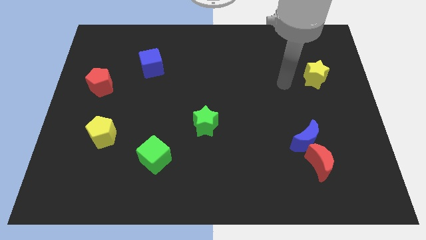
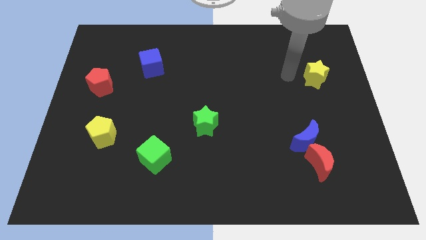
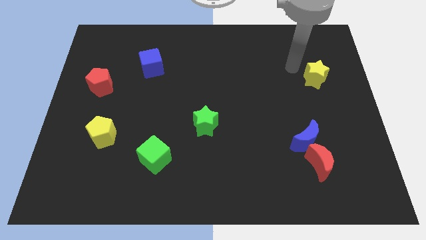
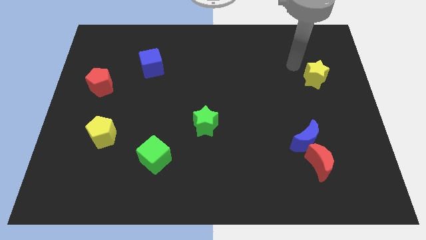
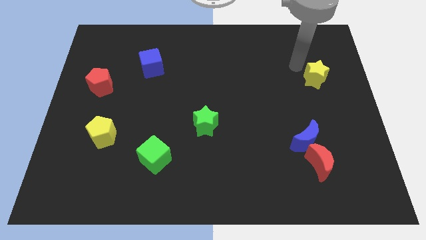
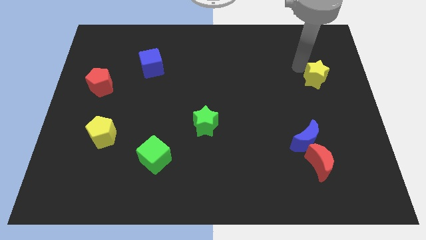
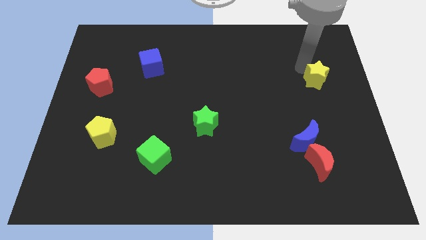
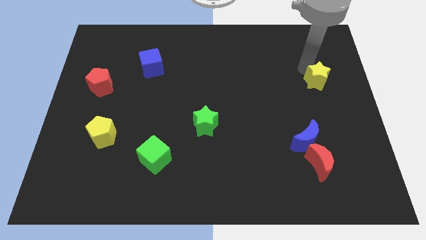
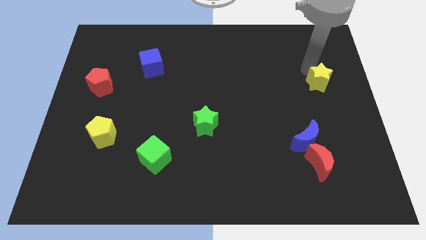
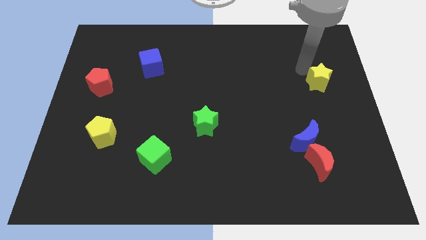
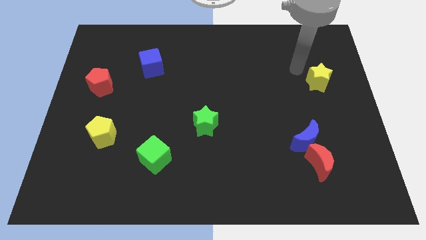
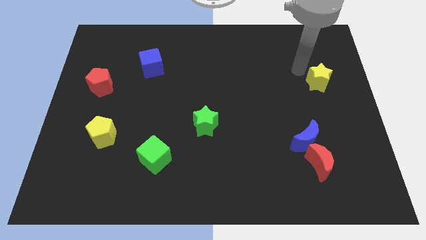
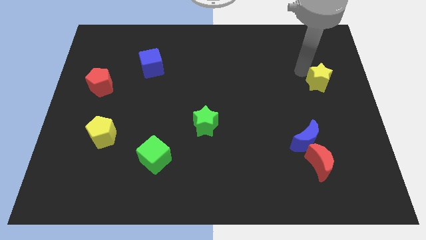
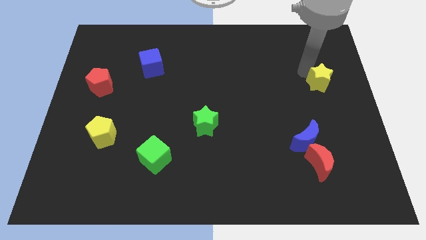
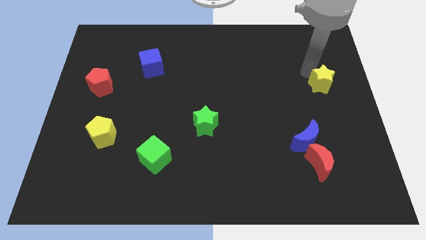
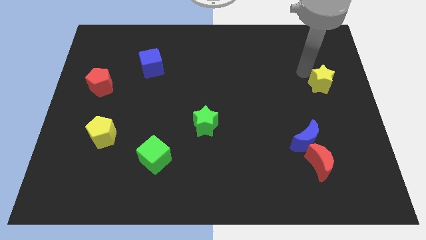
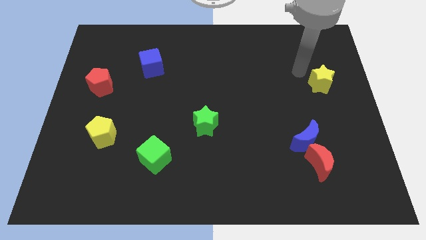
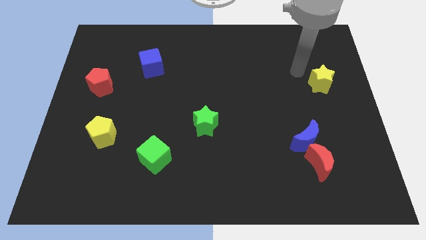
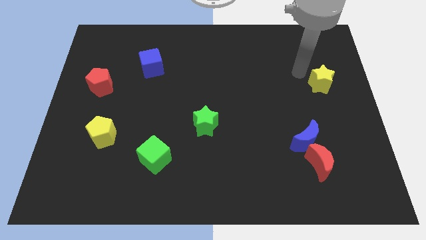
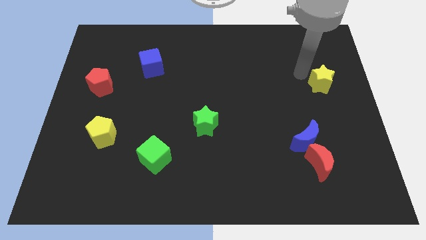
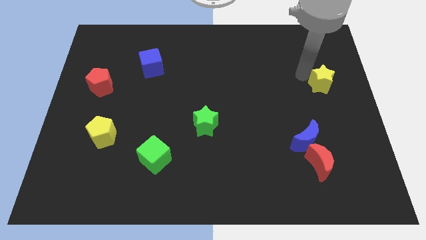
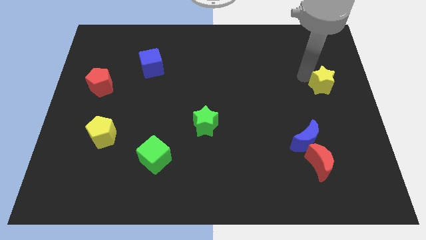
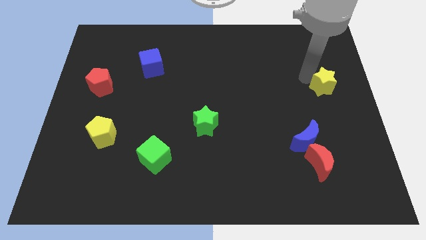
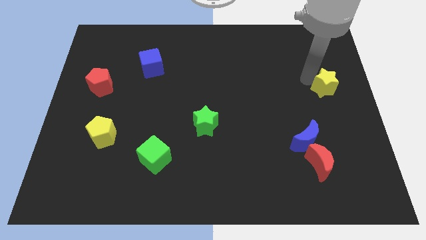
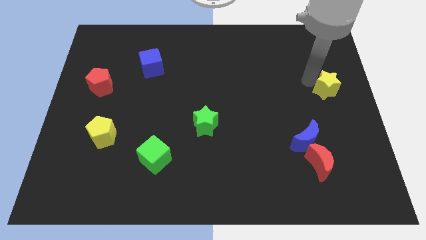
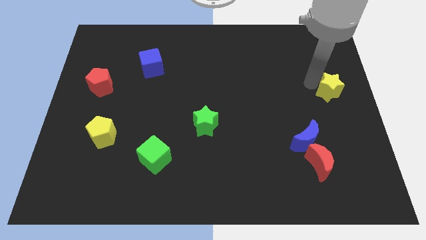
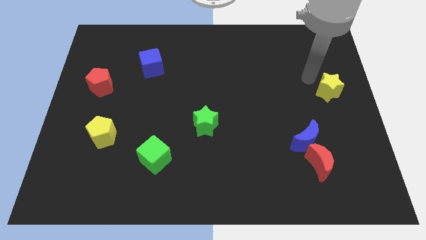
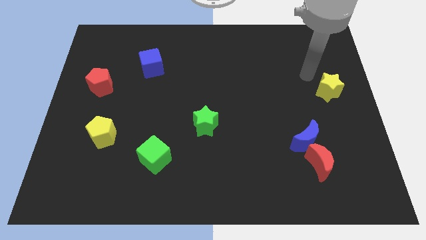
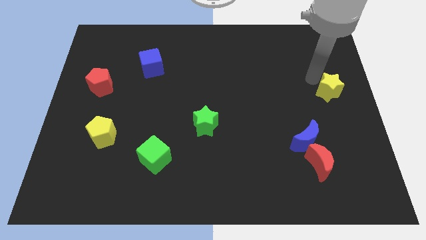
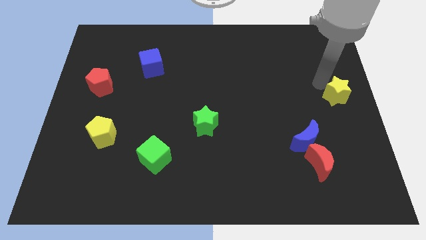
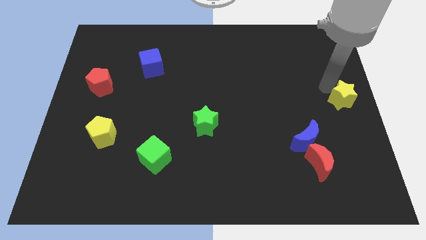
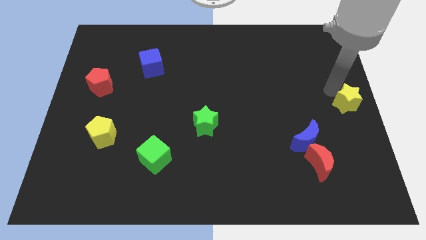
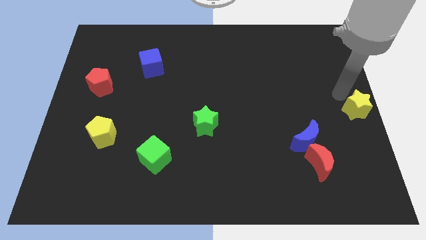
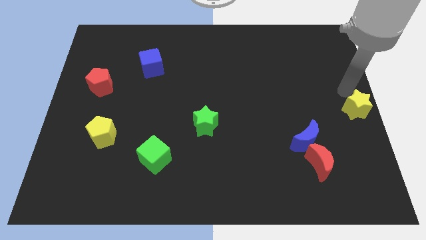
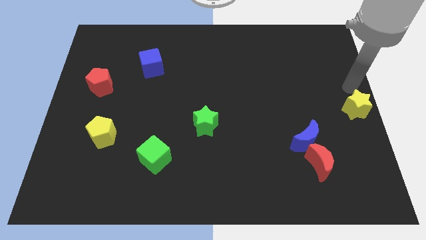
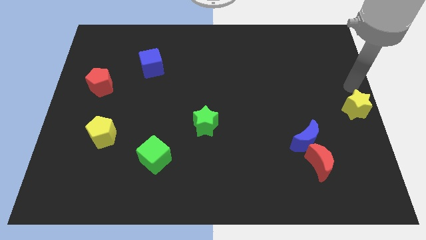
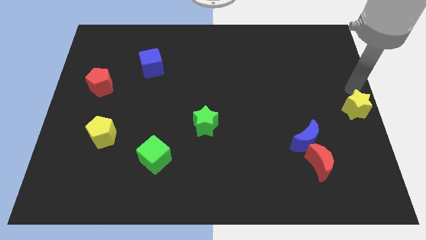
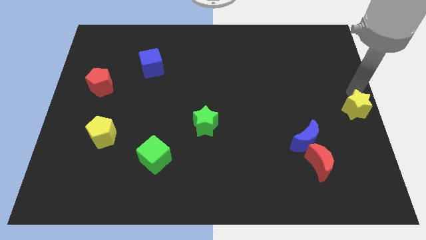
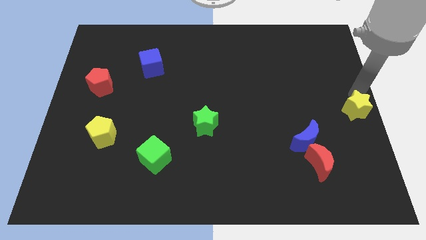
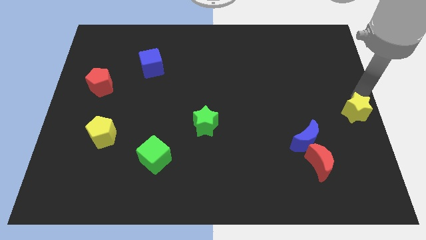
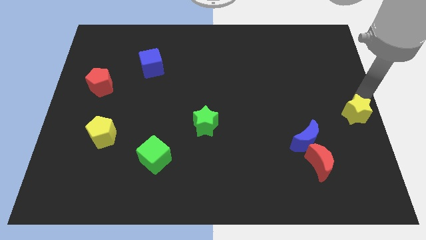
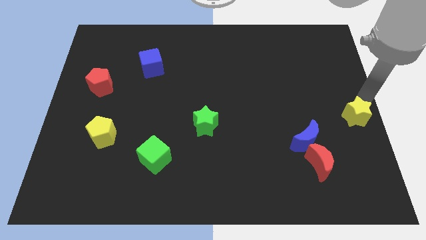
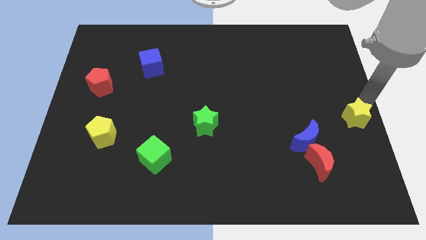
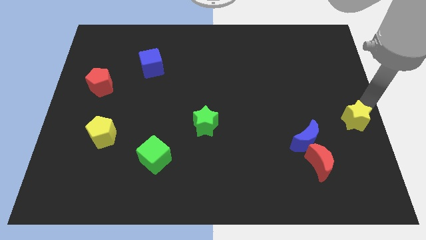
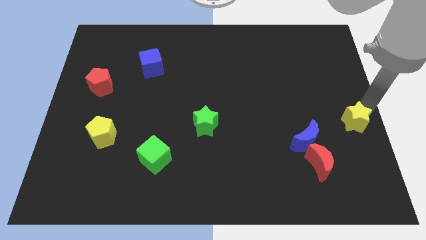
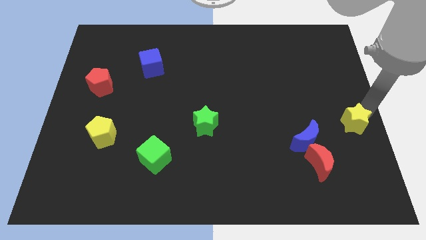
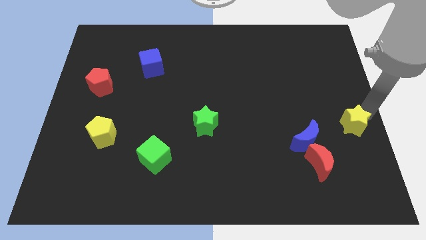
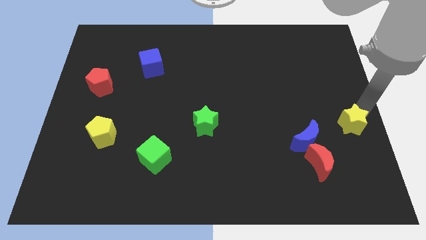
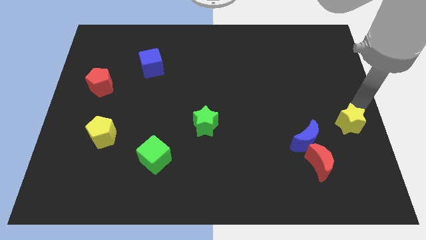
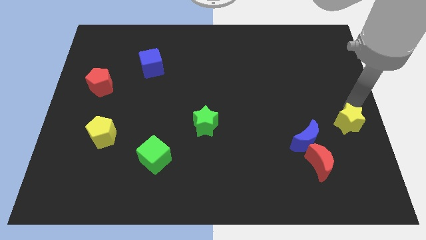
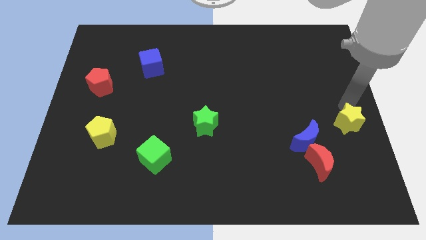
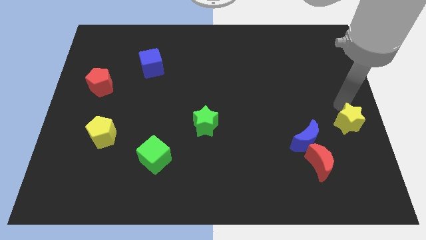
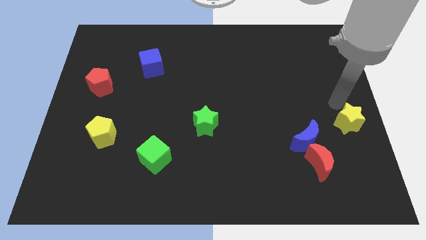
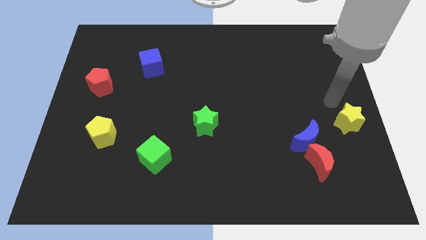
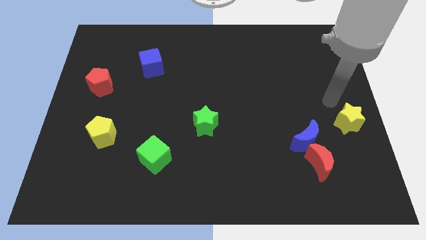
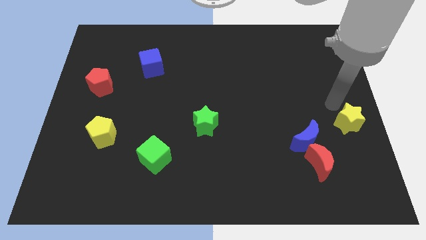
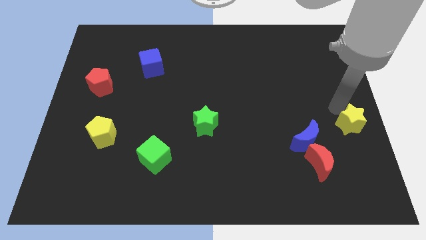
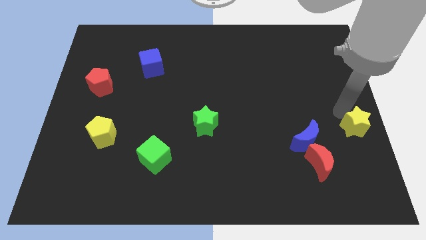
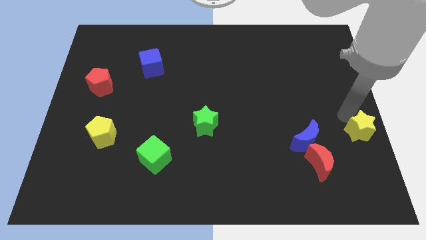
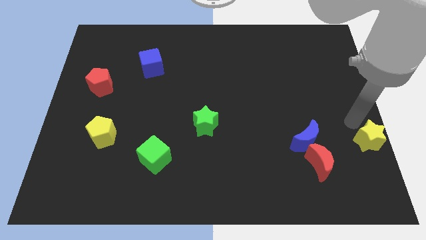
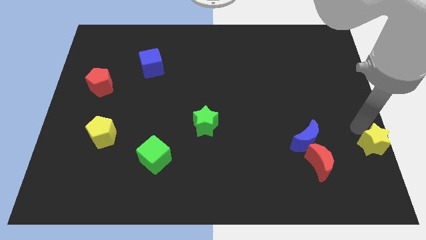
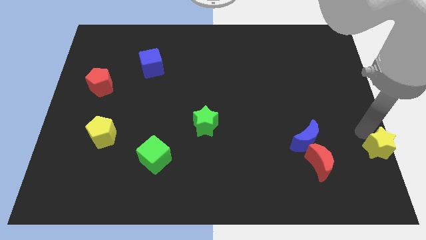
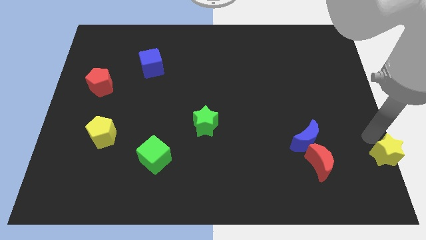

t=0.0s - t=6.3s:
slide the yellow star to the bottom right of the board

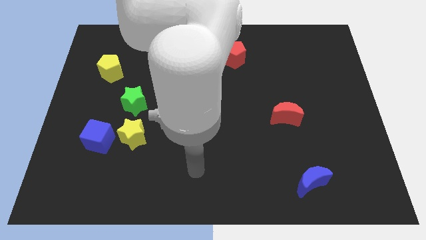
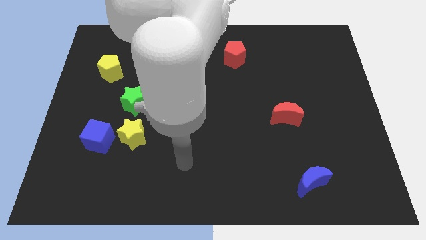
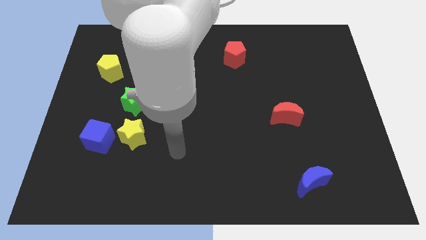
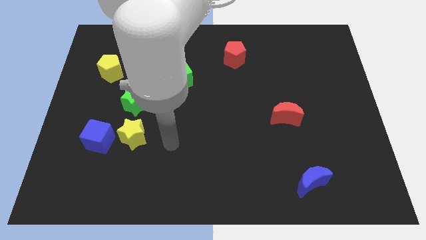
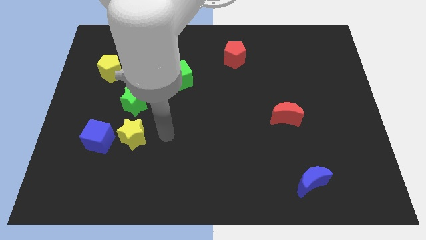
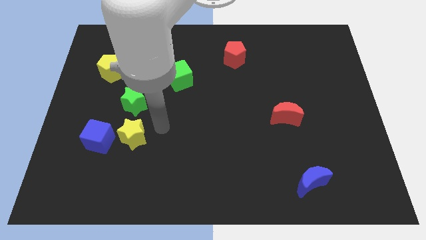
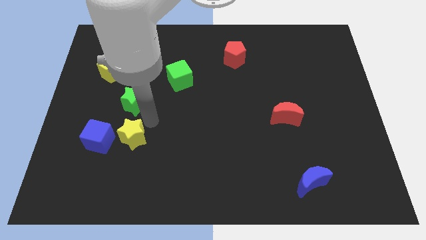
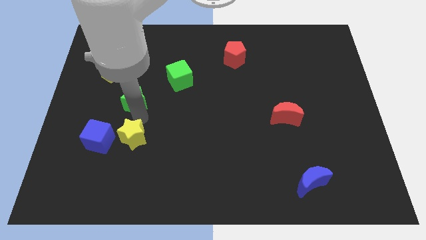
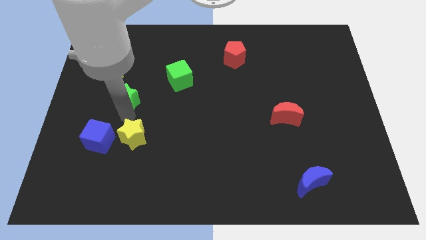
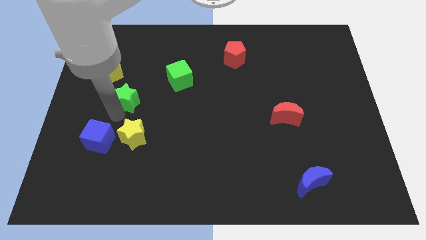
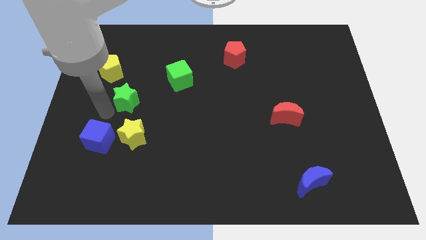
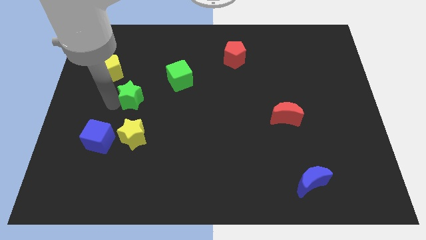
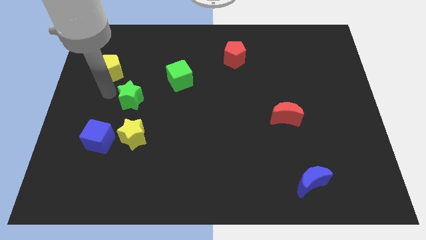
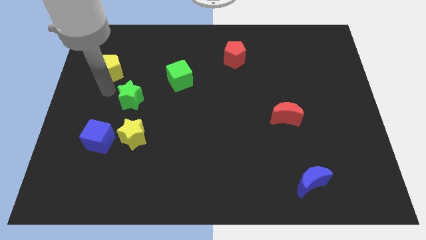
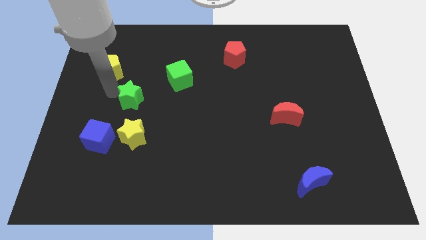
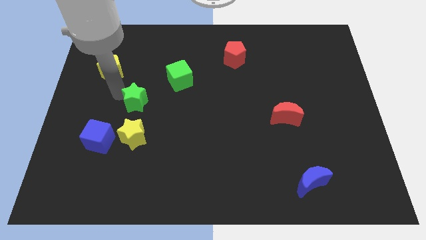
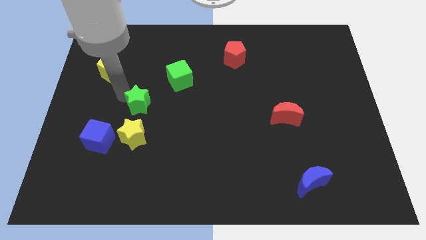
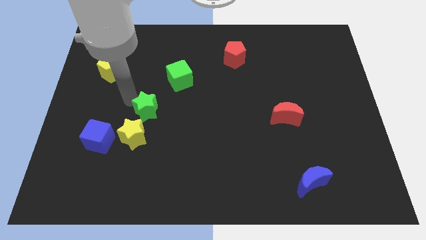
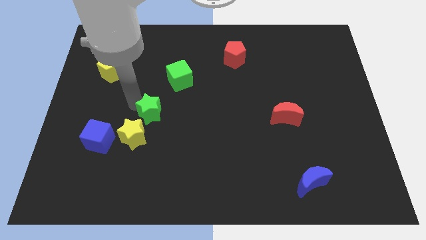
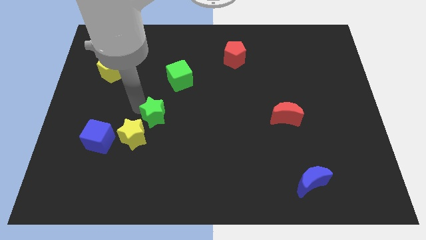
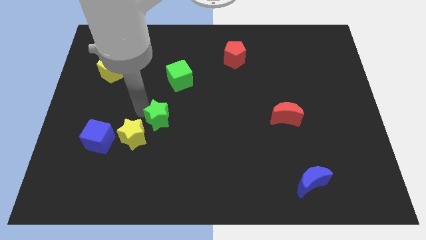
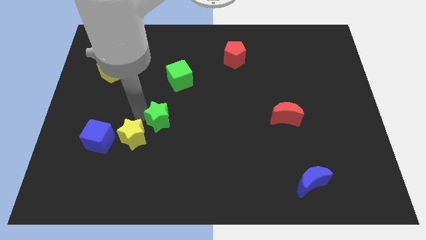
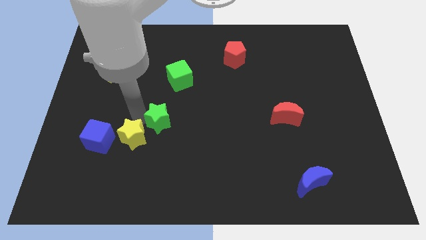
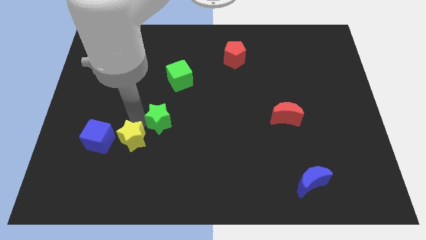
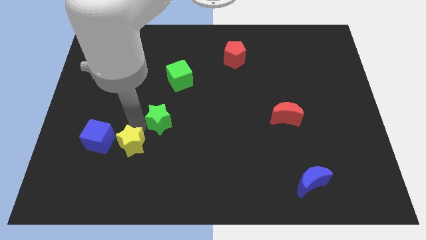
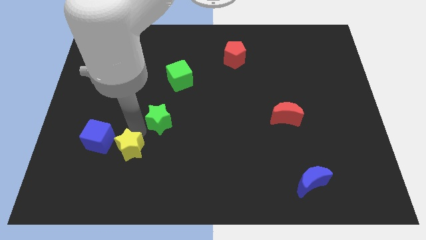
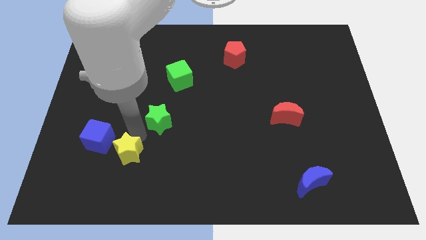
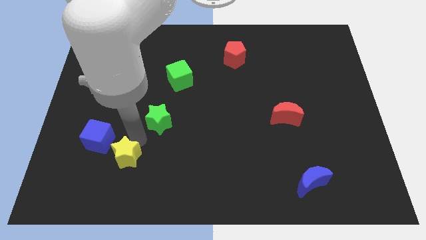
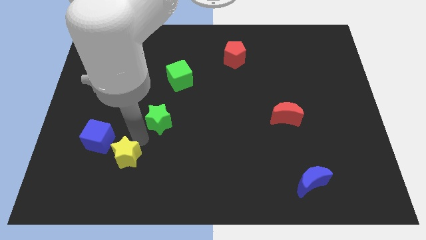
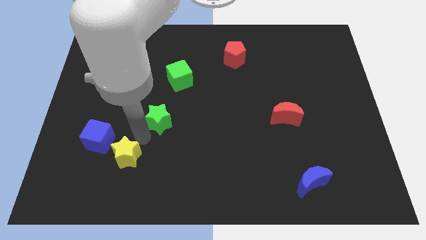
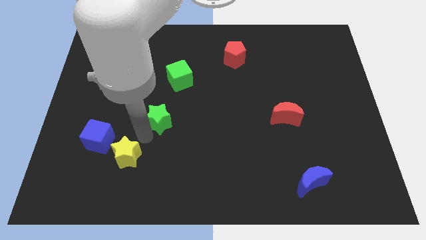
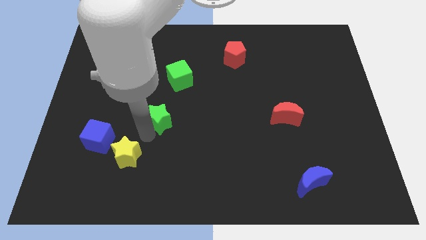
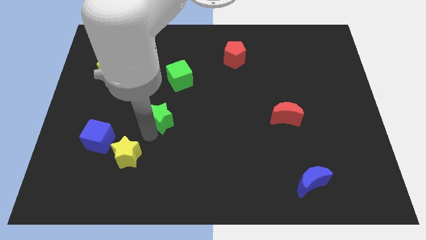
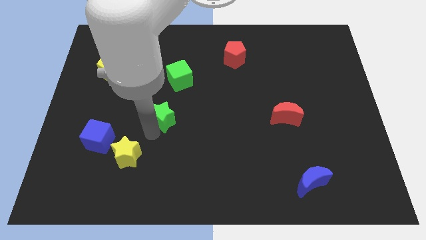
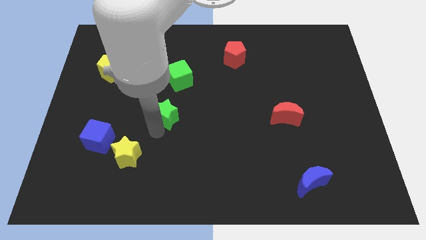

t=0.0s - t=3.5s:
slide the green star to the center of the board
